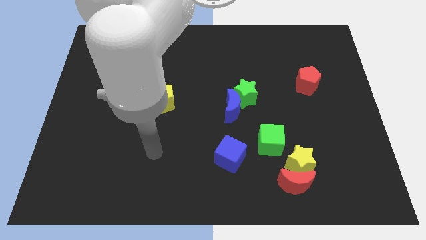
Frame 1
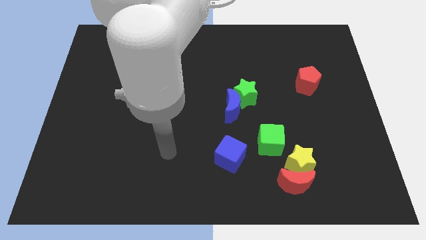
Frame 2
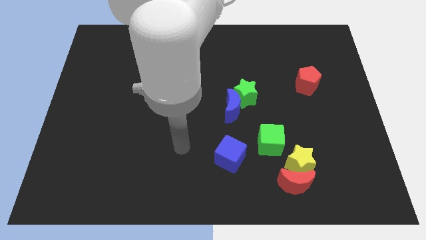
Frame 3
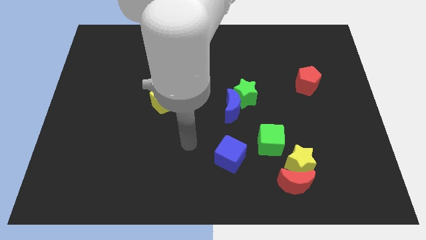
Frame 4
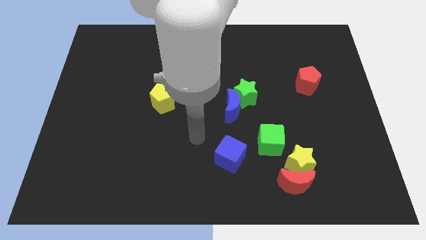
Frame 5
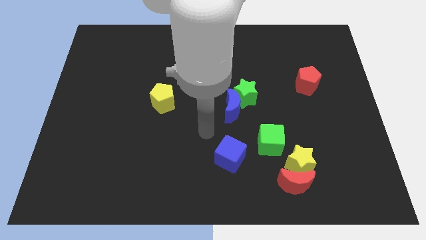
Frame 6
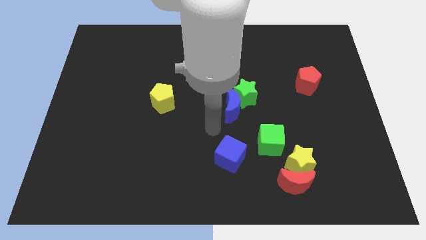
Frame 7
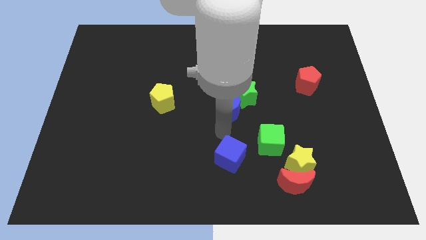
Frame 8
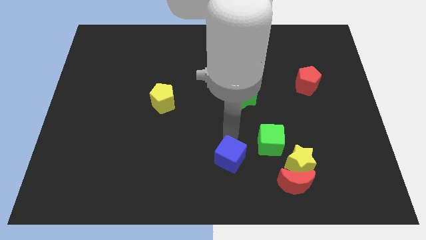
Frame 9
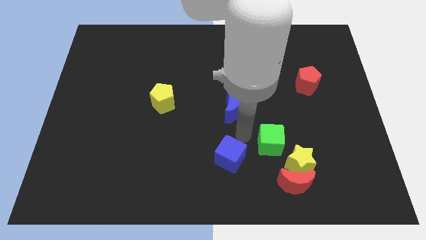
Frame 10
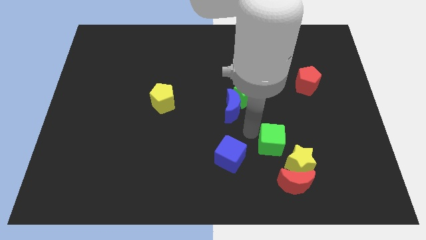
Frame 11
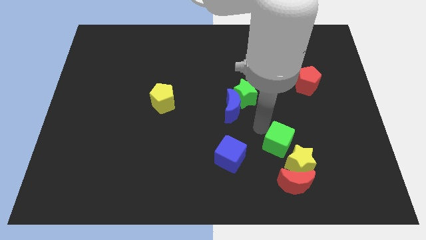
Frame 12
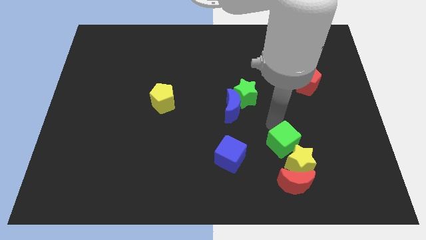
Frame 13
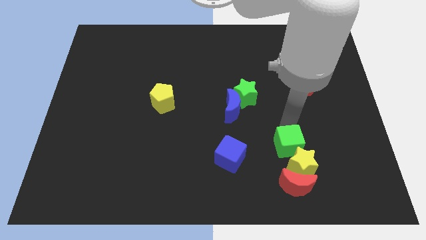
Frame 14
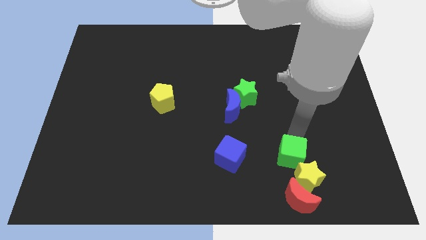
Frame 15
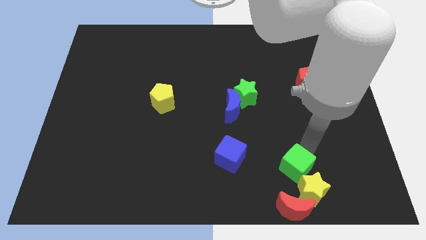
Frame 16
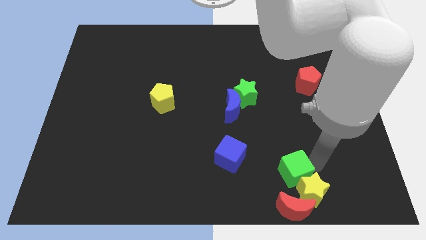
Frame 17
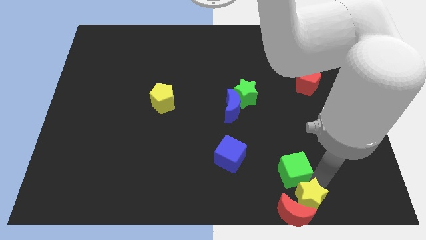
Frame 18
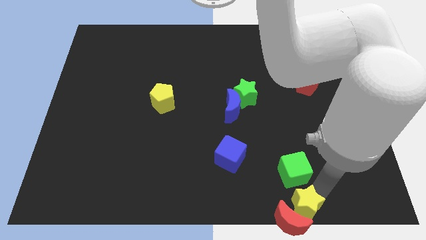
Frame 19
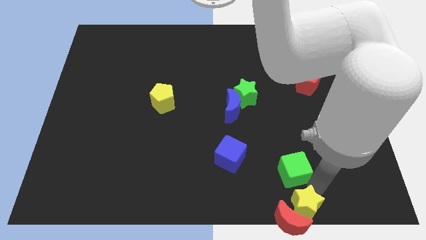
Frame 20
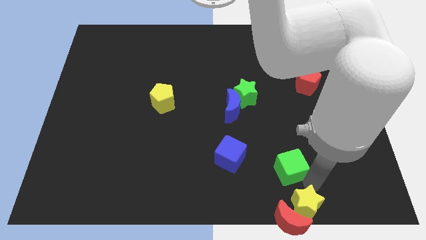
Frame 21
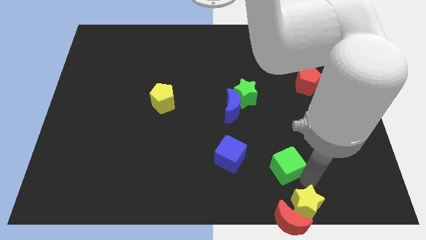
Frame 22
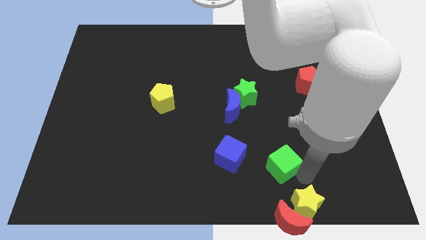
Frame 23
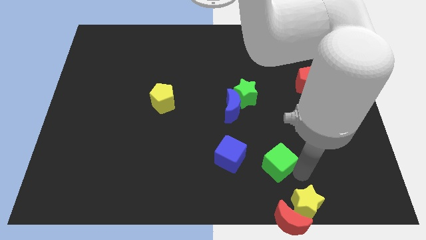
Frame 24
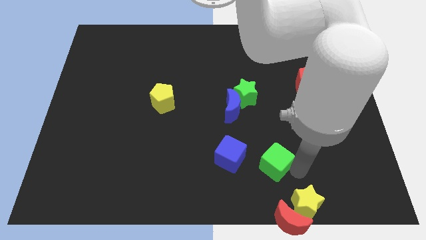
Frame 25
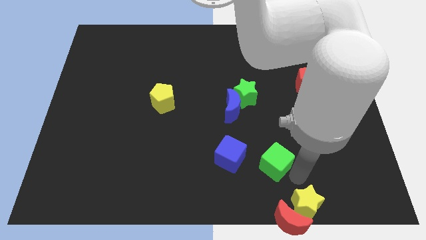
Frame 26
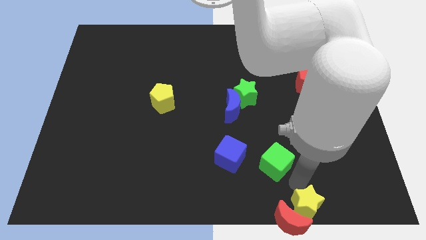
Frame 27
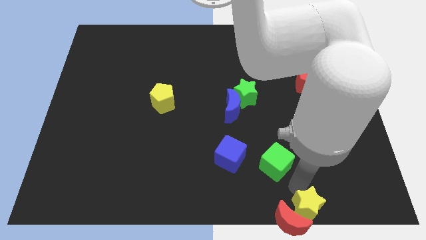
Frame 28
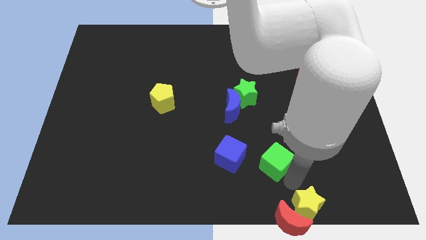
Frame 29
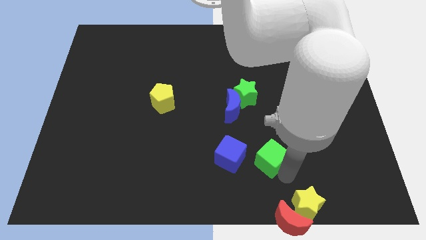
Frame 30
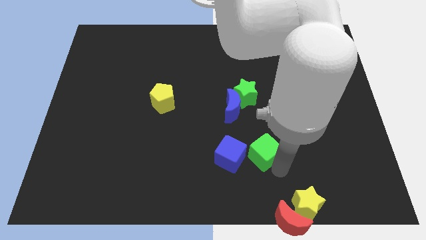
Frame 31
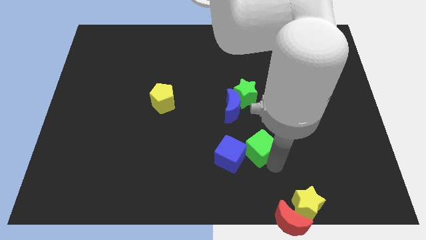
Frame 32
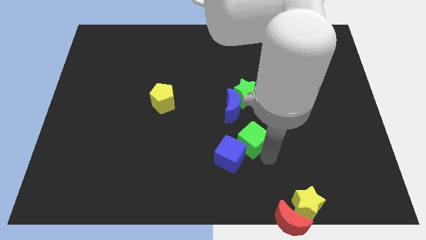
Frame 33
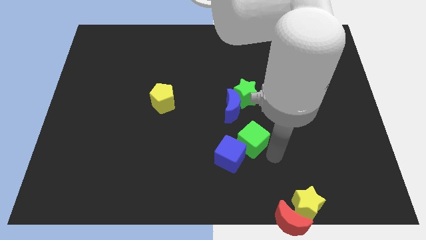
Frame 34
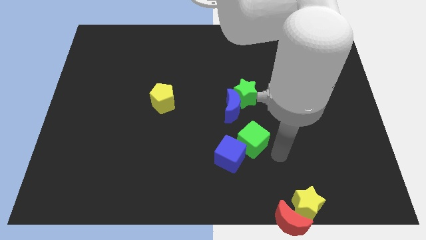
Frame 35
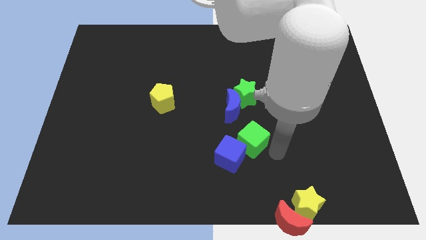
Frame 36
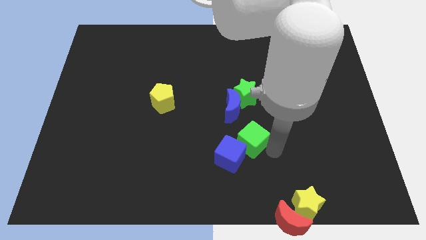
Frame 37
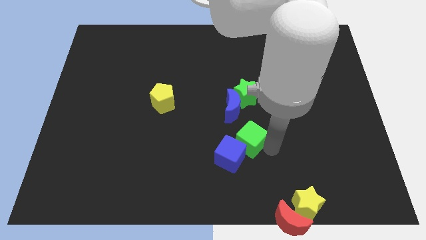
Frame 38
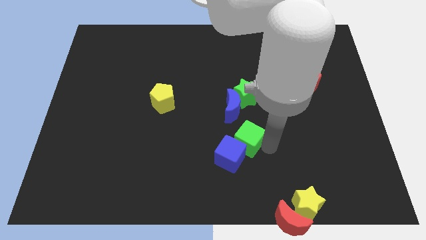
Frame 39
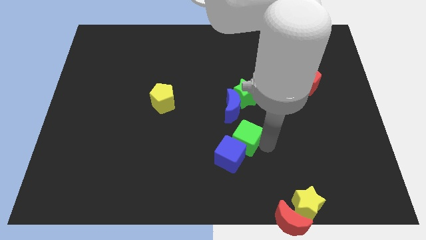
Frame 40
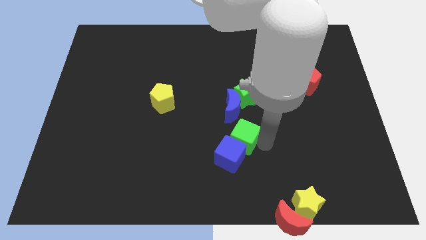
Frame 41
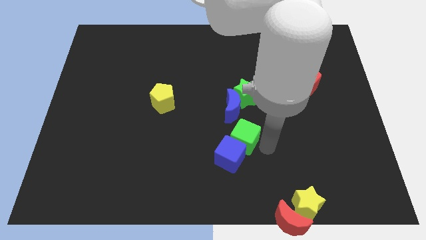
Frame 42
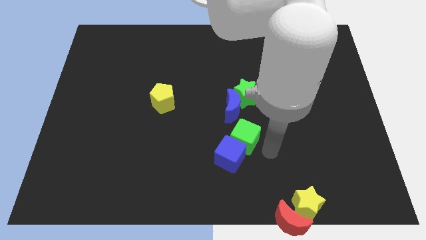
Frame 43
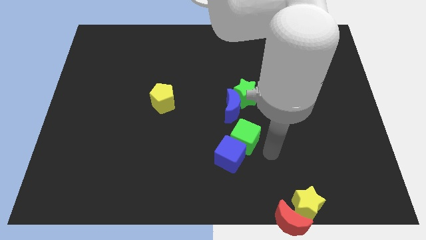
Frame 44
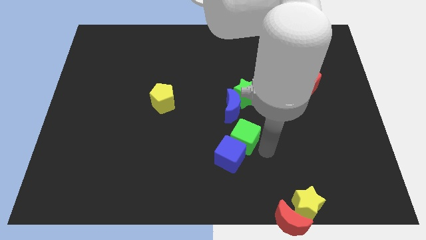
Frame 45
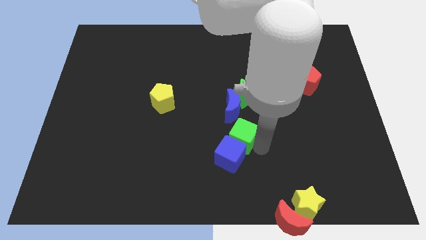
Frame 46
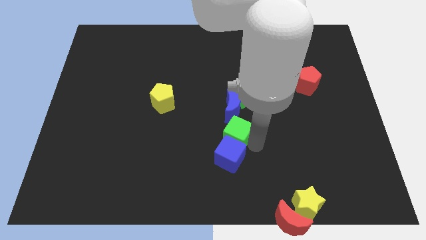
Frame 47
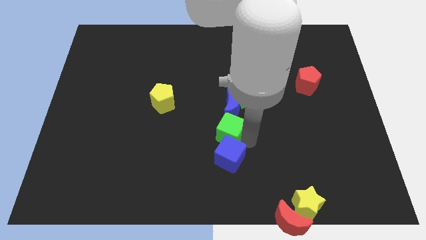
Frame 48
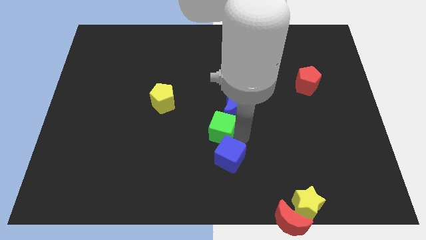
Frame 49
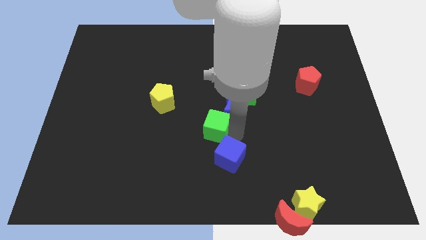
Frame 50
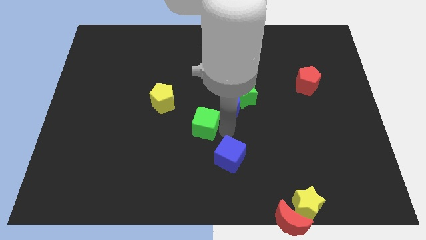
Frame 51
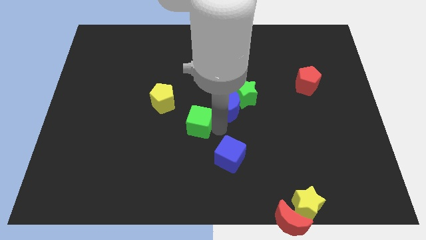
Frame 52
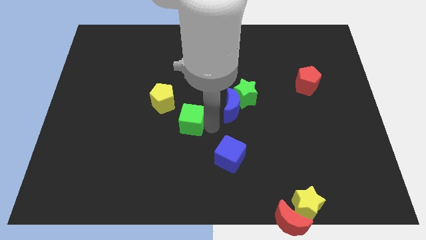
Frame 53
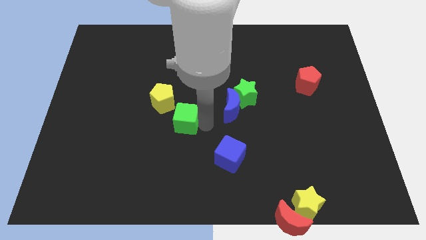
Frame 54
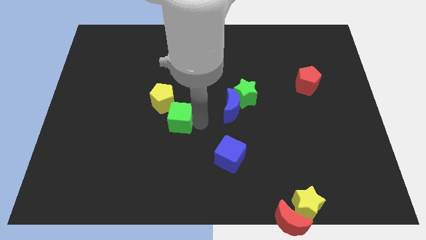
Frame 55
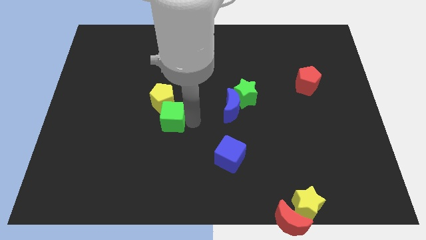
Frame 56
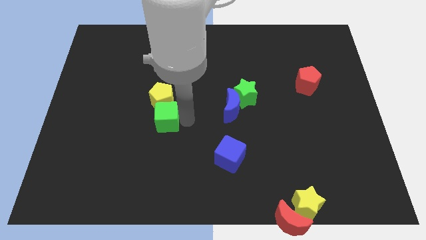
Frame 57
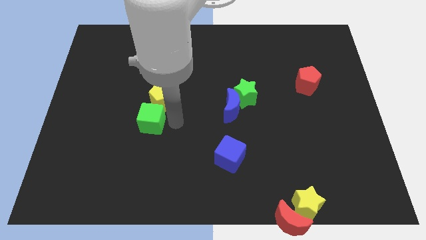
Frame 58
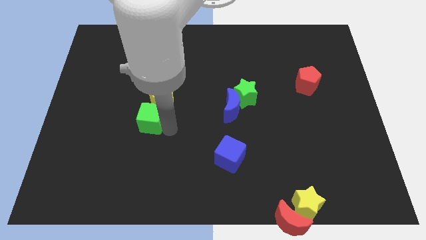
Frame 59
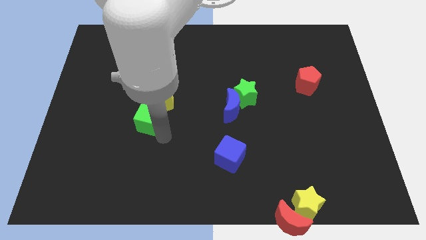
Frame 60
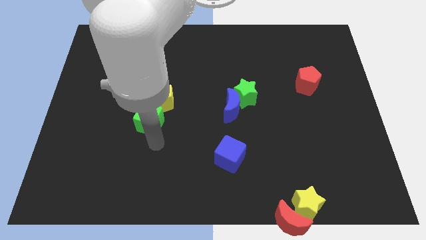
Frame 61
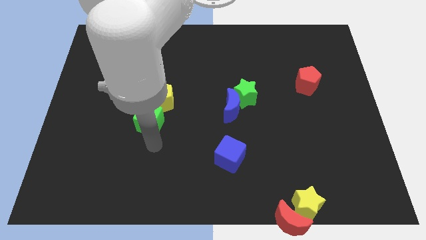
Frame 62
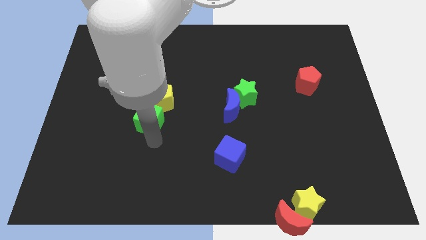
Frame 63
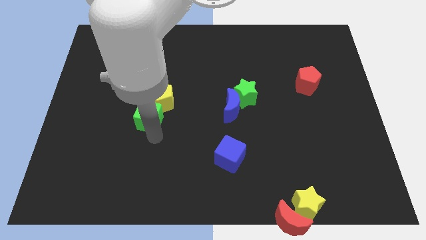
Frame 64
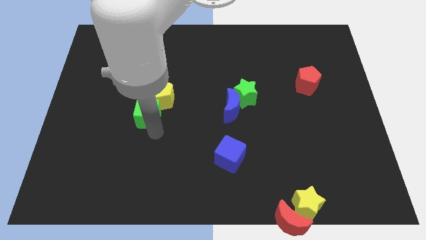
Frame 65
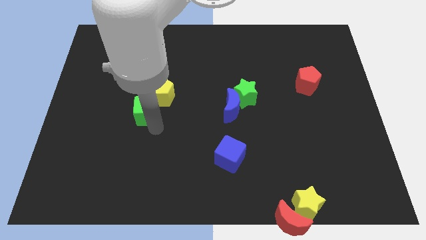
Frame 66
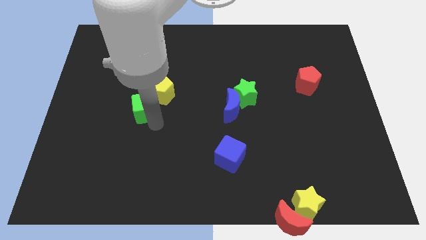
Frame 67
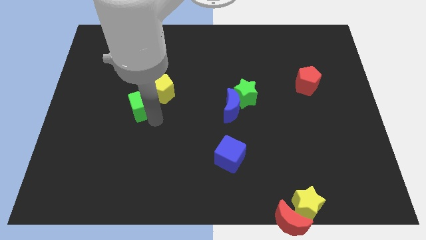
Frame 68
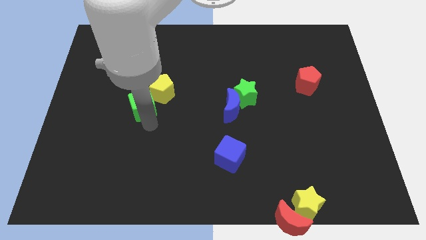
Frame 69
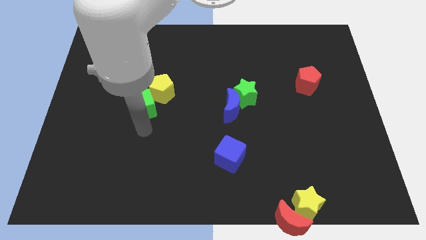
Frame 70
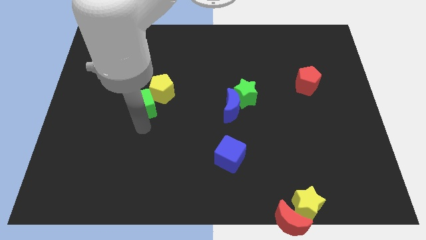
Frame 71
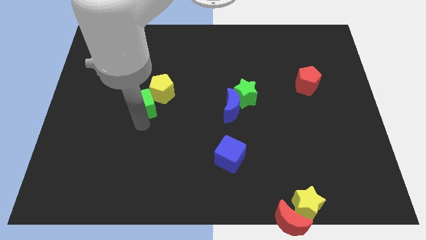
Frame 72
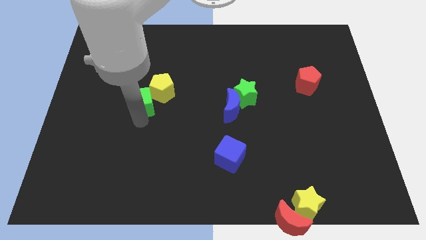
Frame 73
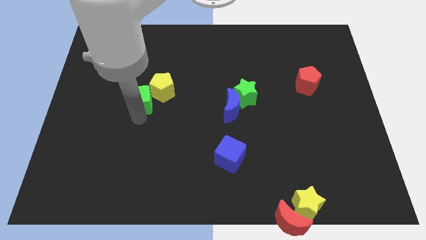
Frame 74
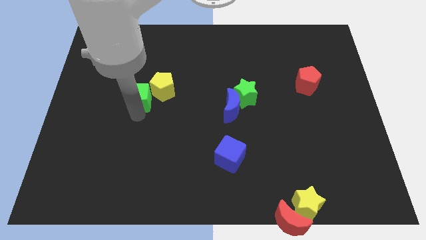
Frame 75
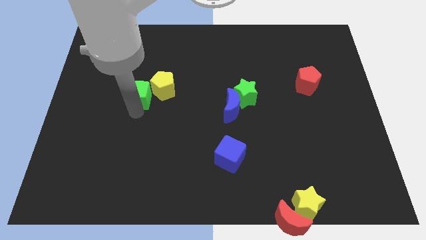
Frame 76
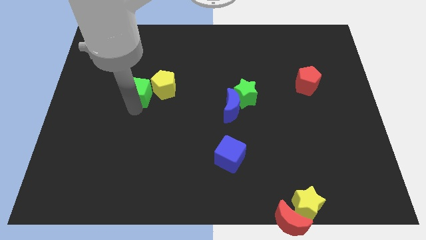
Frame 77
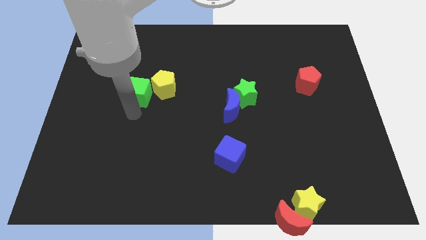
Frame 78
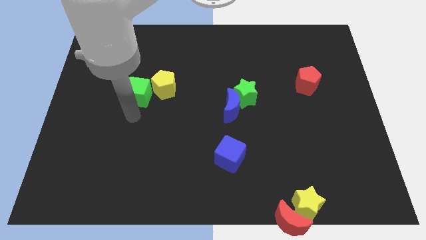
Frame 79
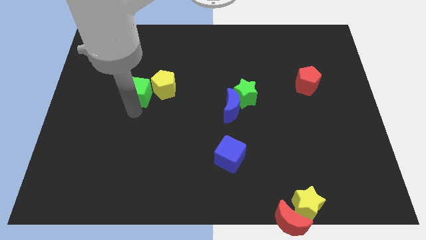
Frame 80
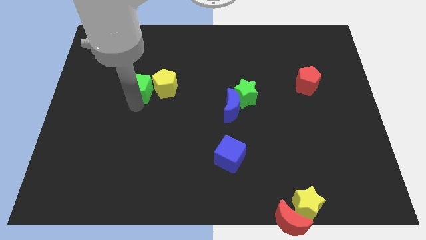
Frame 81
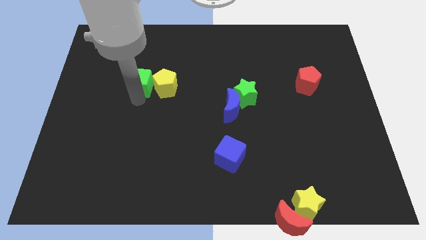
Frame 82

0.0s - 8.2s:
put the green cube to the top left of the yellow pentagon
